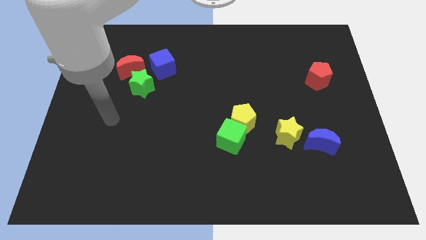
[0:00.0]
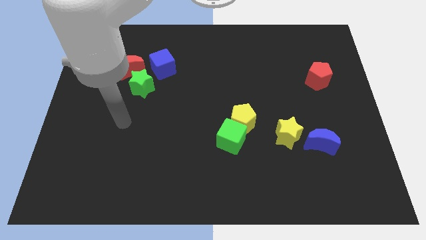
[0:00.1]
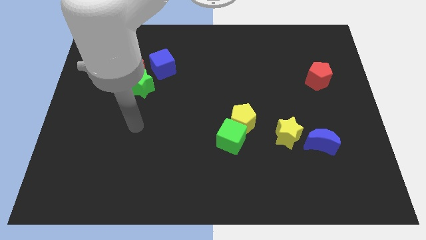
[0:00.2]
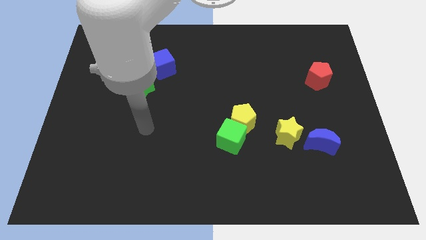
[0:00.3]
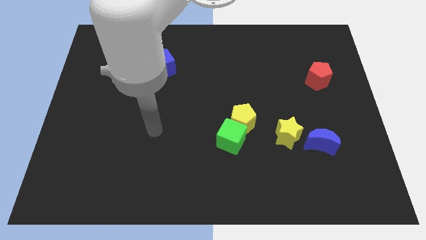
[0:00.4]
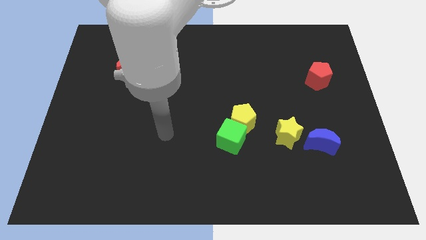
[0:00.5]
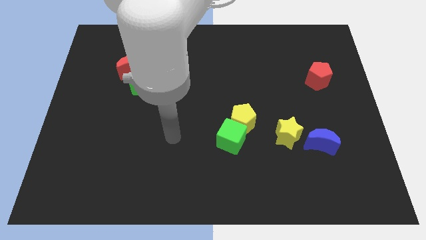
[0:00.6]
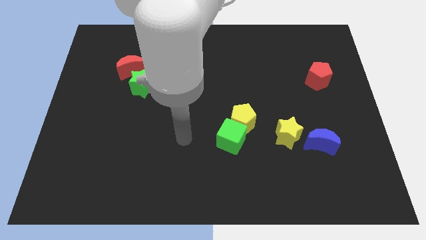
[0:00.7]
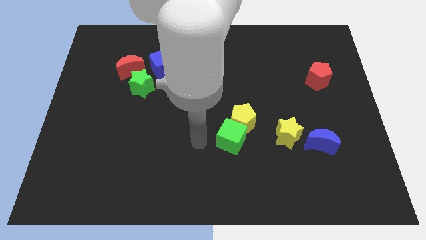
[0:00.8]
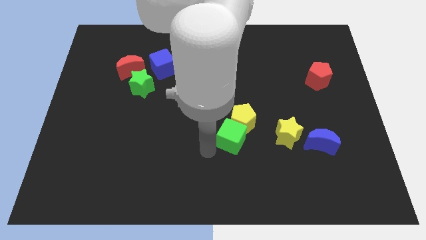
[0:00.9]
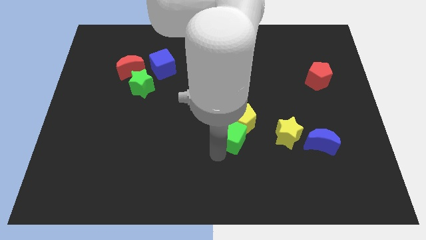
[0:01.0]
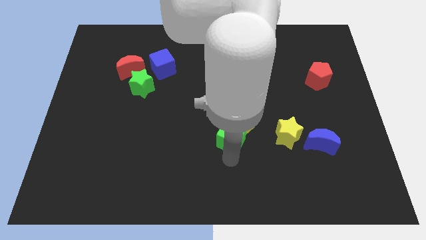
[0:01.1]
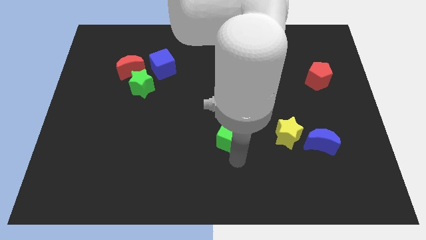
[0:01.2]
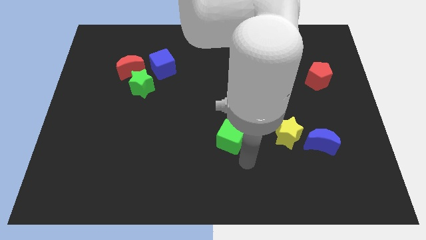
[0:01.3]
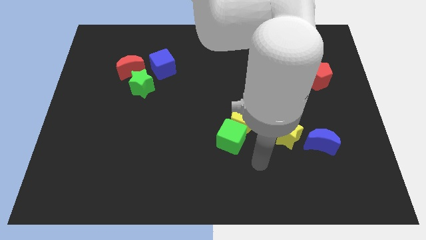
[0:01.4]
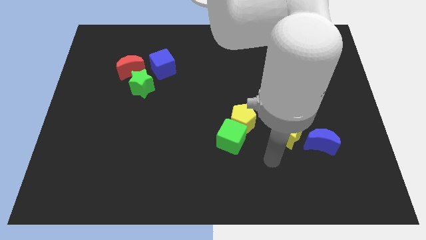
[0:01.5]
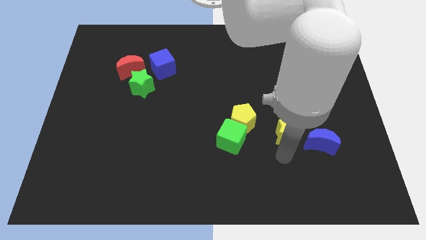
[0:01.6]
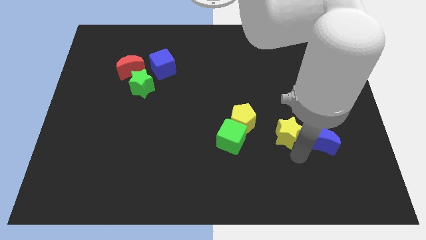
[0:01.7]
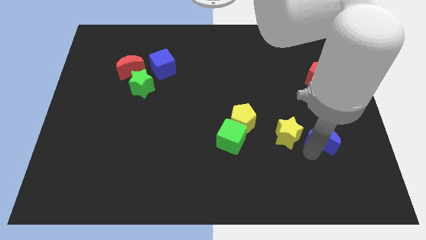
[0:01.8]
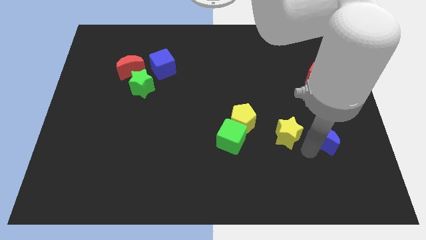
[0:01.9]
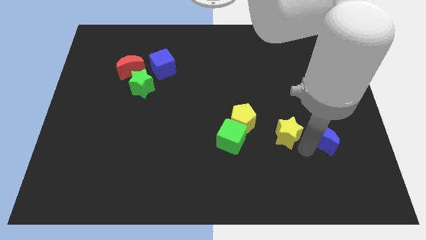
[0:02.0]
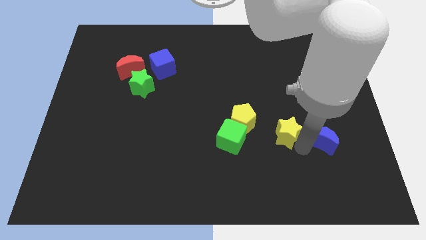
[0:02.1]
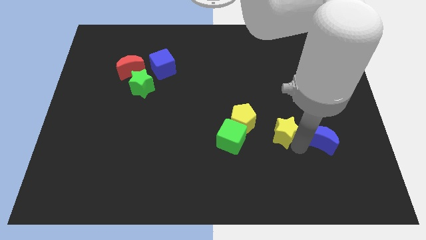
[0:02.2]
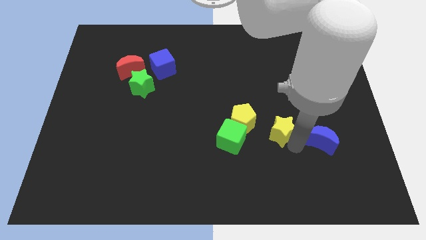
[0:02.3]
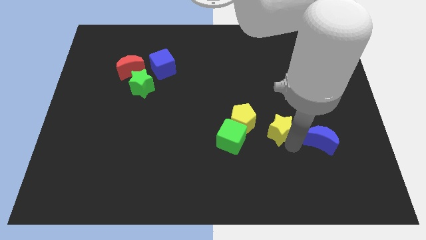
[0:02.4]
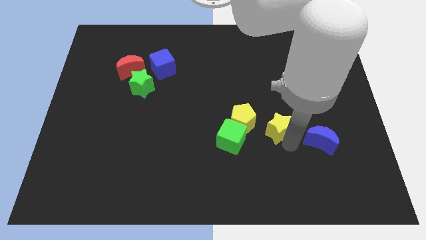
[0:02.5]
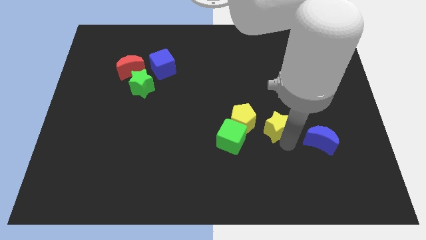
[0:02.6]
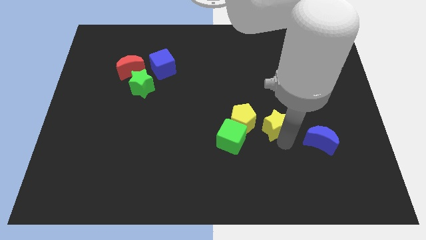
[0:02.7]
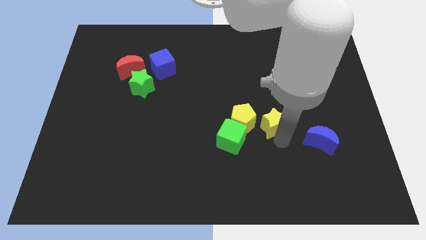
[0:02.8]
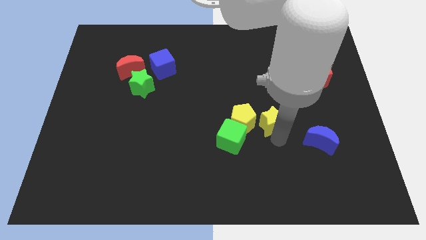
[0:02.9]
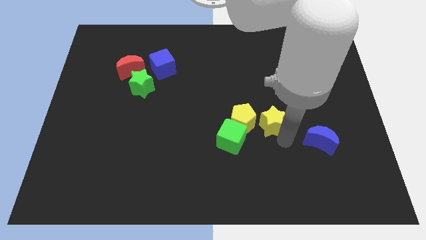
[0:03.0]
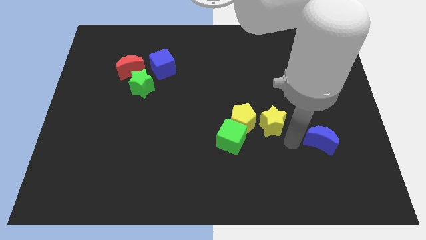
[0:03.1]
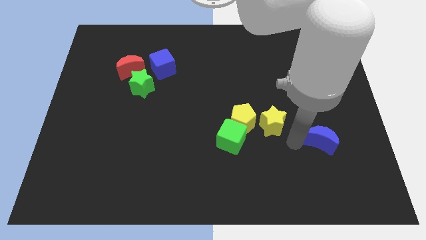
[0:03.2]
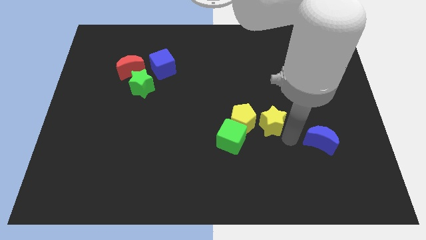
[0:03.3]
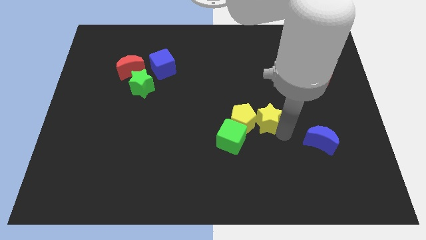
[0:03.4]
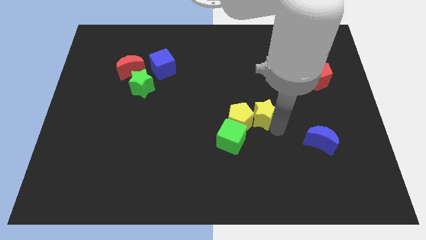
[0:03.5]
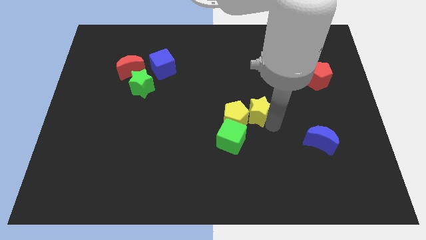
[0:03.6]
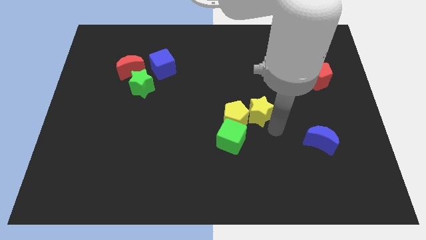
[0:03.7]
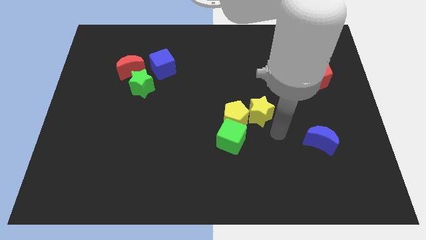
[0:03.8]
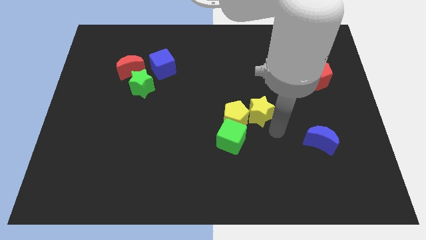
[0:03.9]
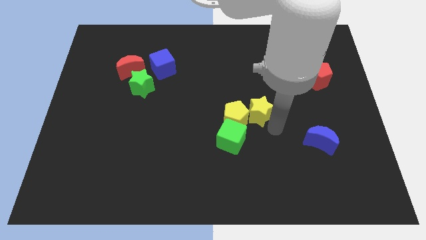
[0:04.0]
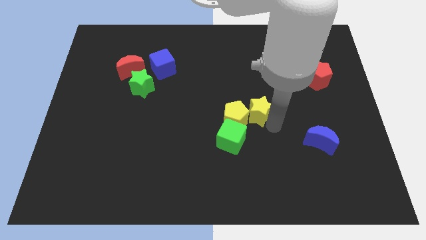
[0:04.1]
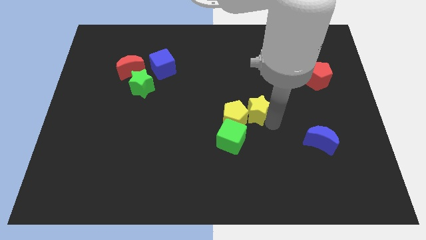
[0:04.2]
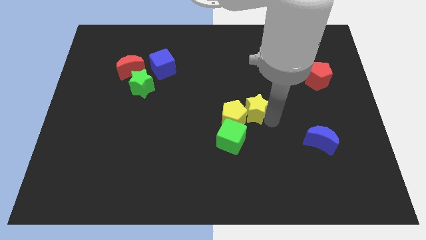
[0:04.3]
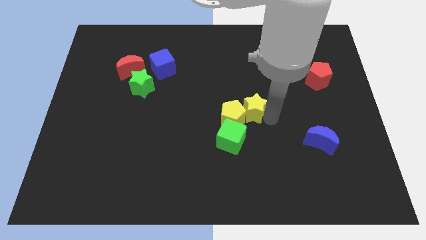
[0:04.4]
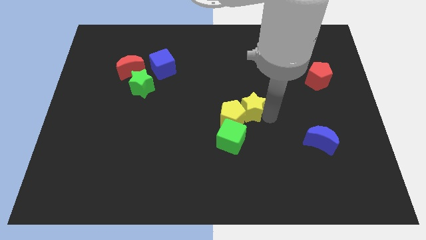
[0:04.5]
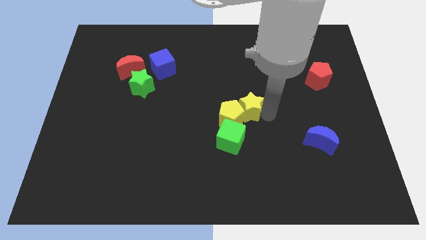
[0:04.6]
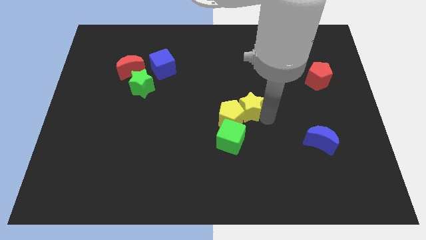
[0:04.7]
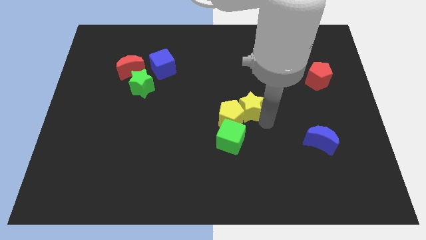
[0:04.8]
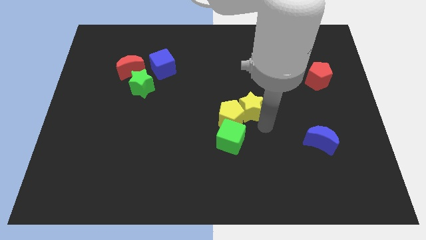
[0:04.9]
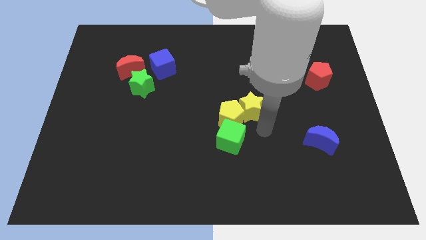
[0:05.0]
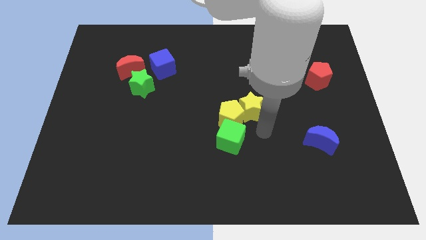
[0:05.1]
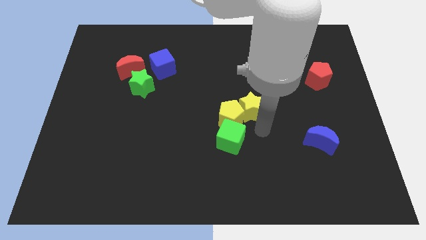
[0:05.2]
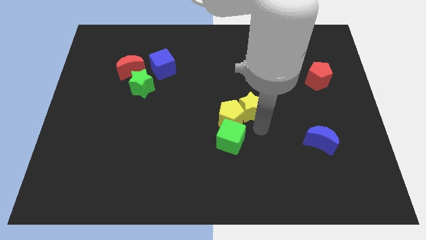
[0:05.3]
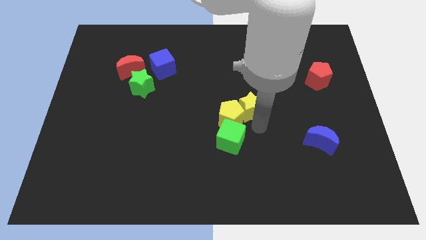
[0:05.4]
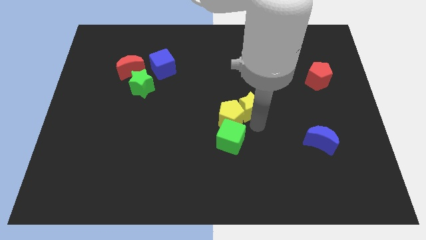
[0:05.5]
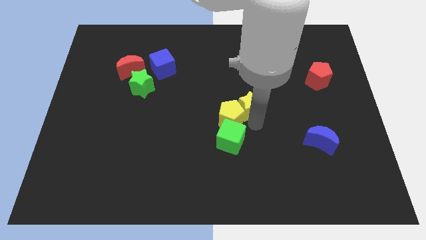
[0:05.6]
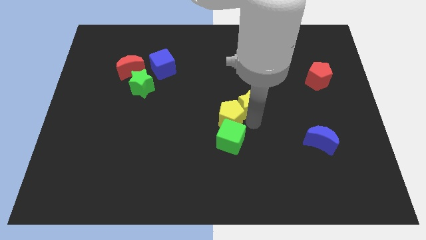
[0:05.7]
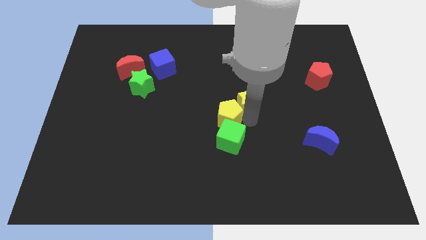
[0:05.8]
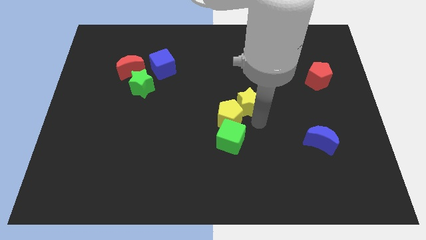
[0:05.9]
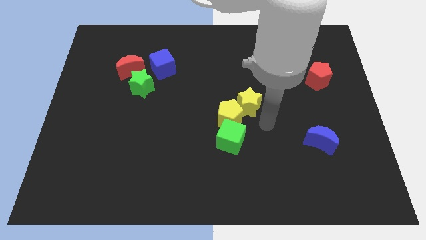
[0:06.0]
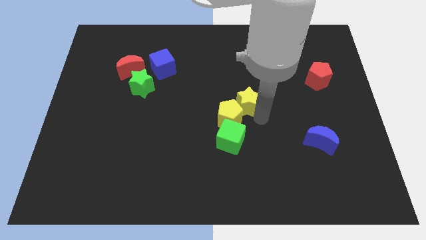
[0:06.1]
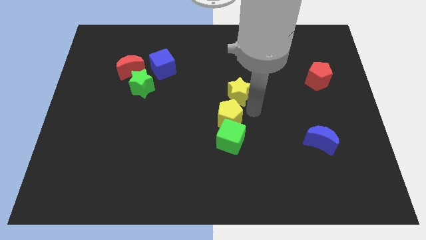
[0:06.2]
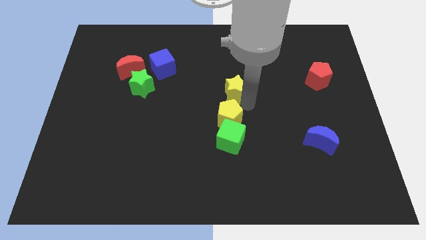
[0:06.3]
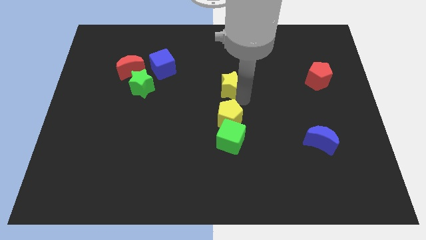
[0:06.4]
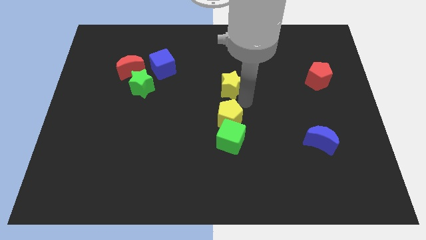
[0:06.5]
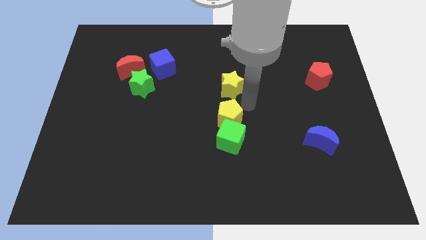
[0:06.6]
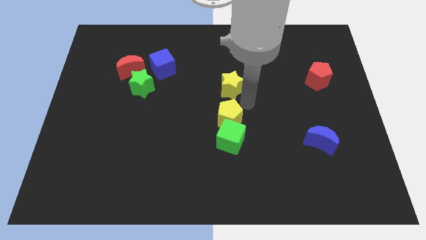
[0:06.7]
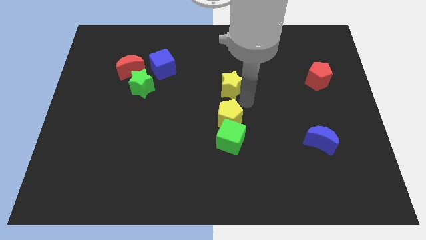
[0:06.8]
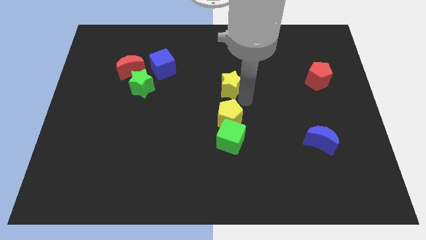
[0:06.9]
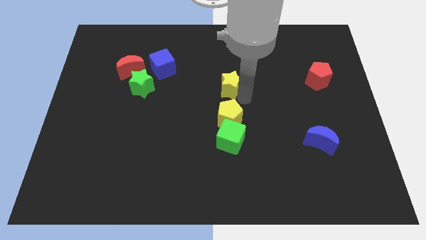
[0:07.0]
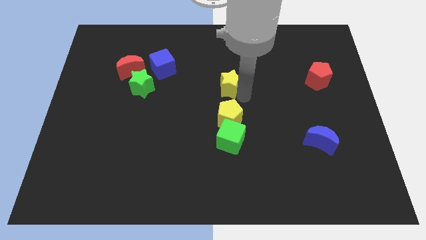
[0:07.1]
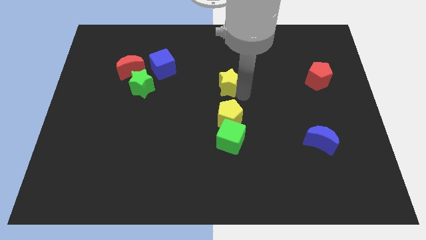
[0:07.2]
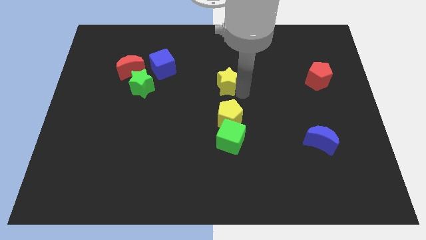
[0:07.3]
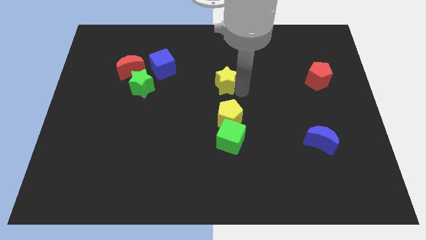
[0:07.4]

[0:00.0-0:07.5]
slide the yellow star up and to the left diagonally

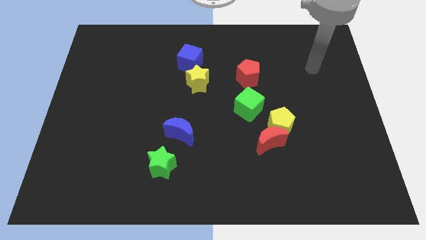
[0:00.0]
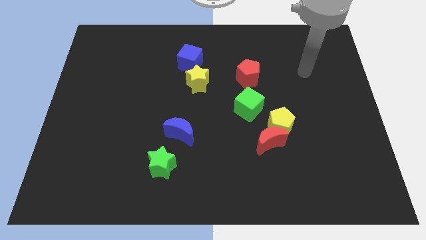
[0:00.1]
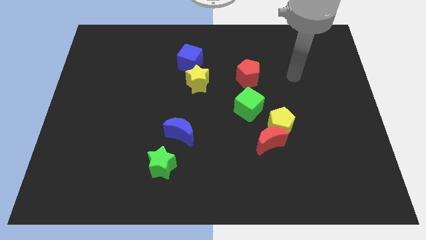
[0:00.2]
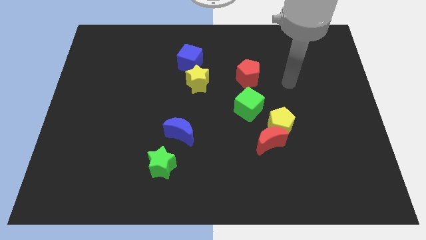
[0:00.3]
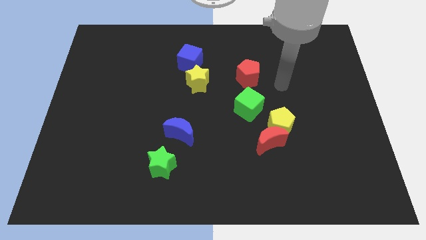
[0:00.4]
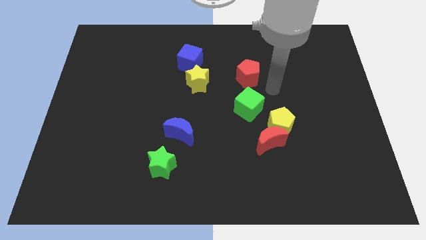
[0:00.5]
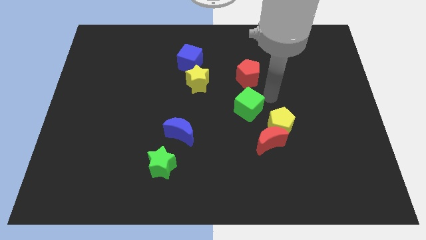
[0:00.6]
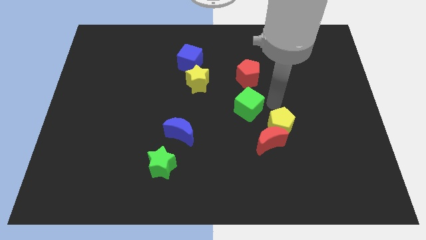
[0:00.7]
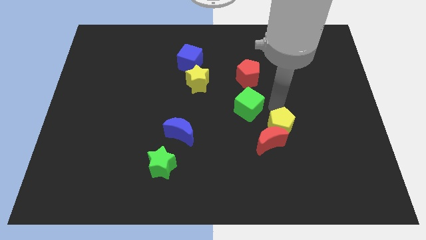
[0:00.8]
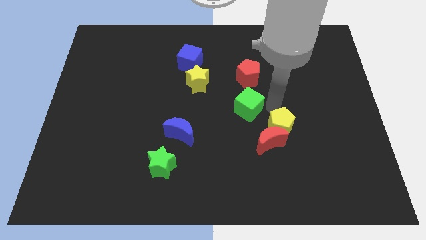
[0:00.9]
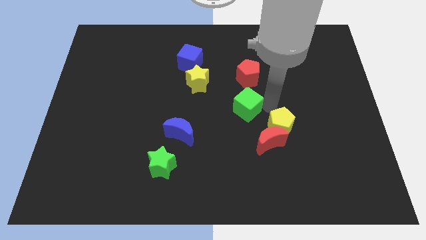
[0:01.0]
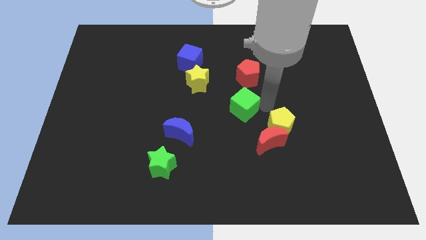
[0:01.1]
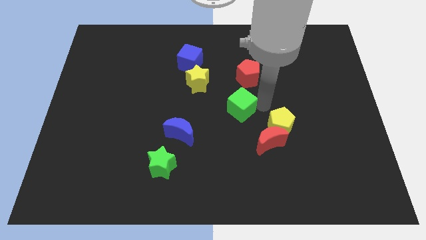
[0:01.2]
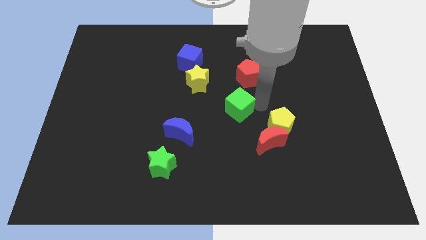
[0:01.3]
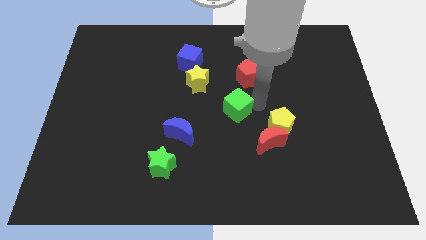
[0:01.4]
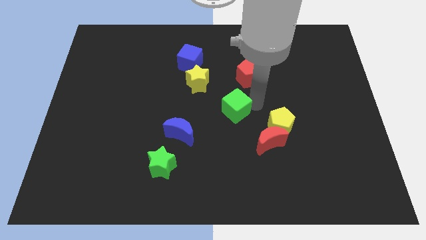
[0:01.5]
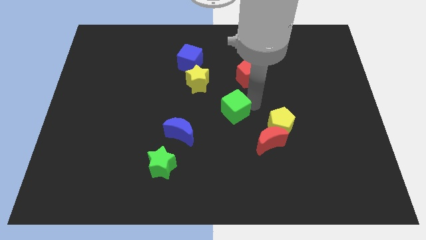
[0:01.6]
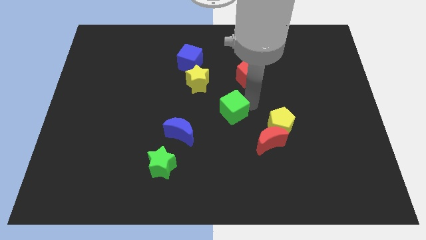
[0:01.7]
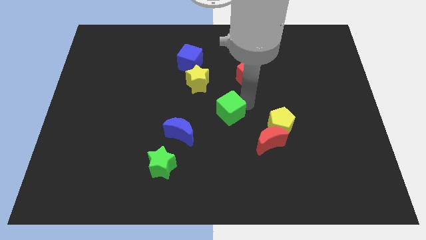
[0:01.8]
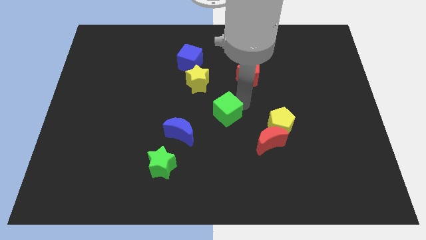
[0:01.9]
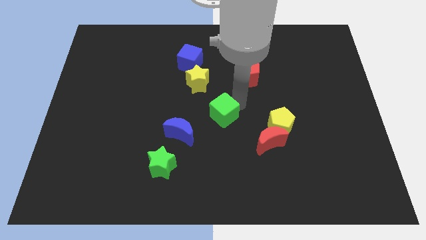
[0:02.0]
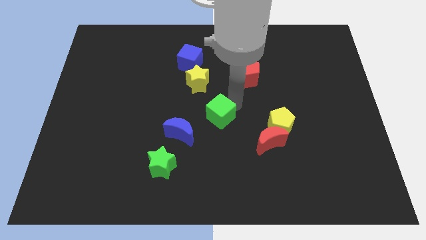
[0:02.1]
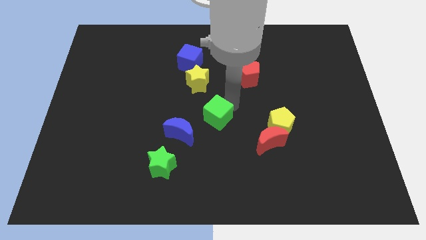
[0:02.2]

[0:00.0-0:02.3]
push the green cube a bit to the left
